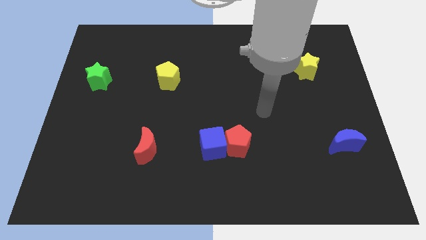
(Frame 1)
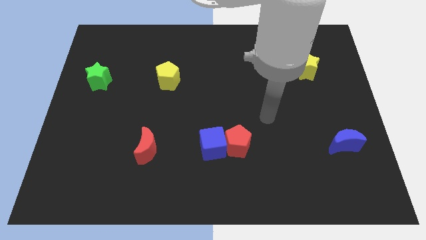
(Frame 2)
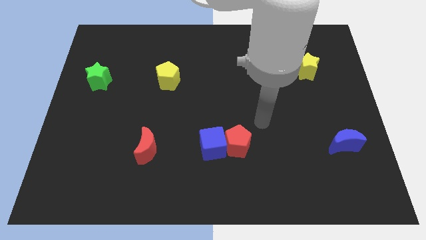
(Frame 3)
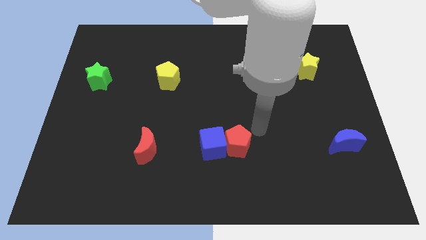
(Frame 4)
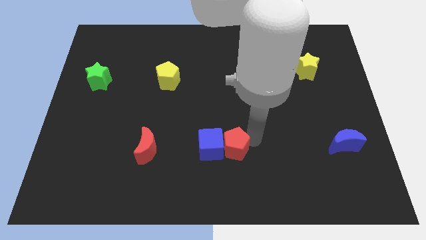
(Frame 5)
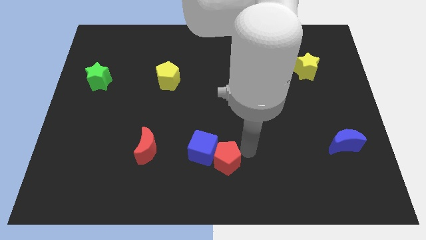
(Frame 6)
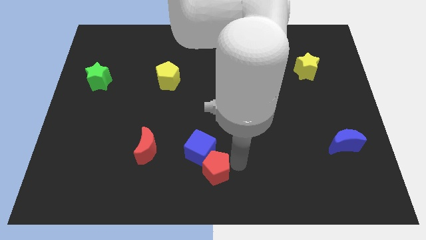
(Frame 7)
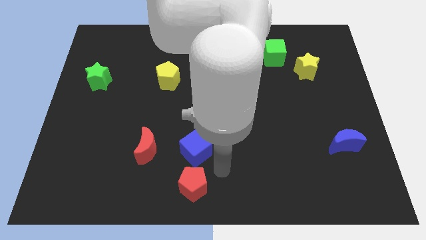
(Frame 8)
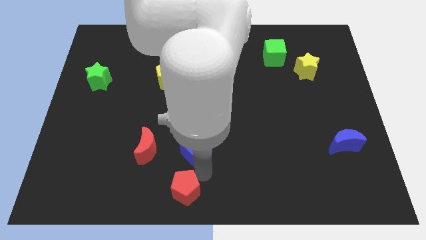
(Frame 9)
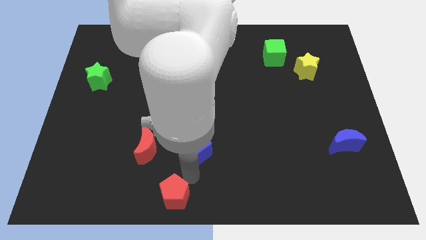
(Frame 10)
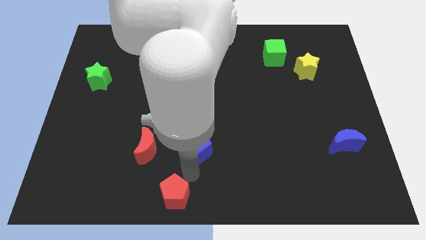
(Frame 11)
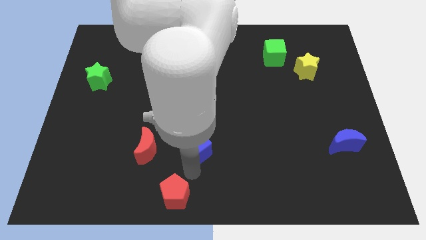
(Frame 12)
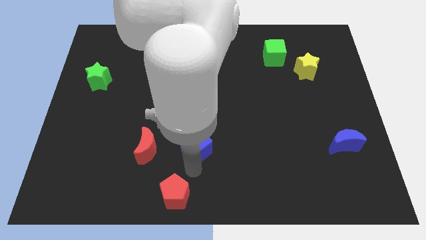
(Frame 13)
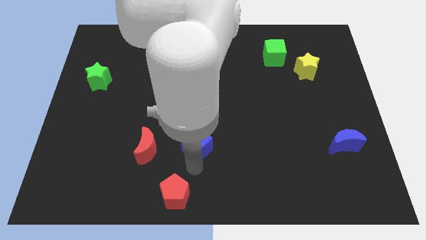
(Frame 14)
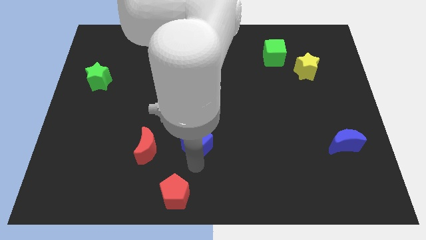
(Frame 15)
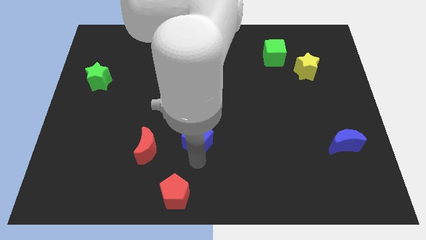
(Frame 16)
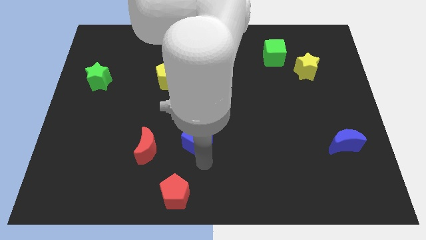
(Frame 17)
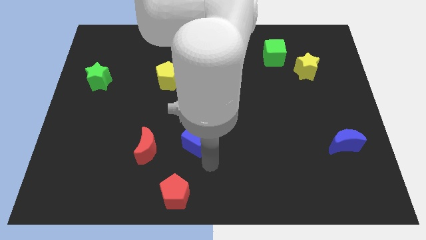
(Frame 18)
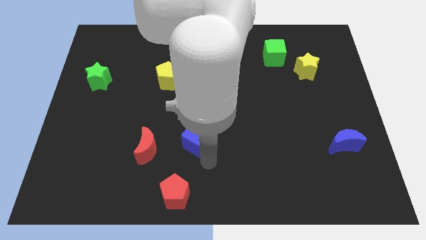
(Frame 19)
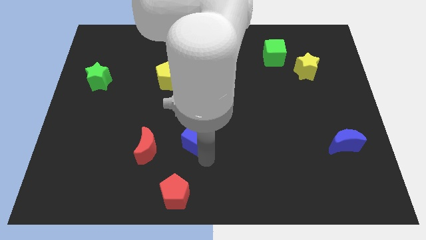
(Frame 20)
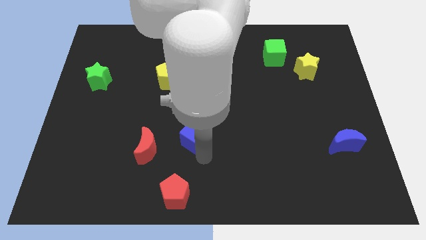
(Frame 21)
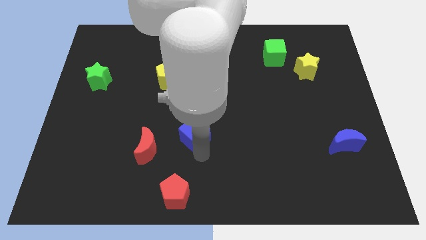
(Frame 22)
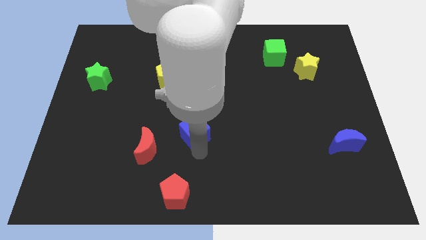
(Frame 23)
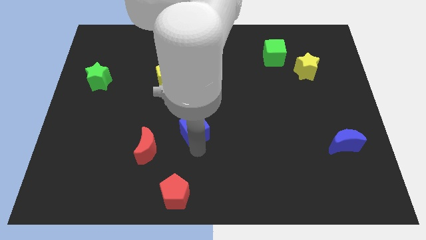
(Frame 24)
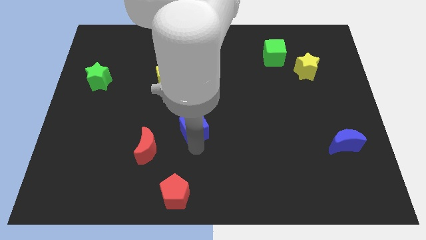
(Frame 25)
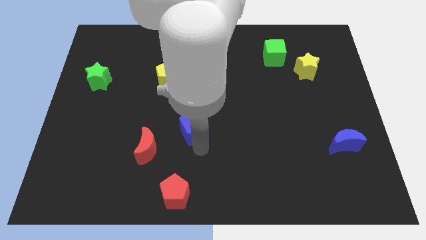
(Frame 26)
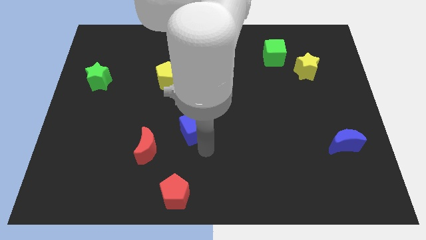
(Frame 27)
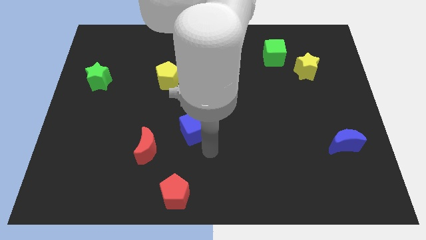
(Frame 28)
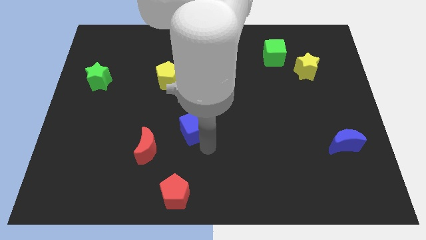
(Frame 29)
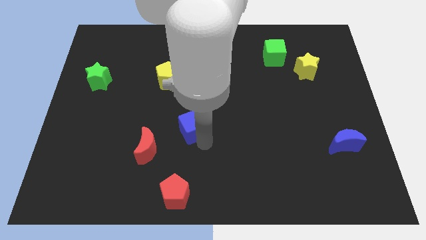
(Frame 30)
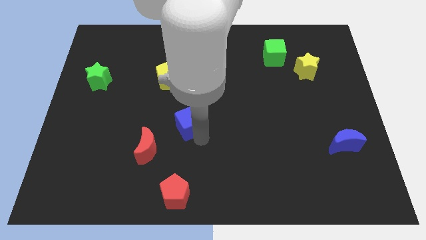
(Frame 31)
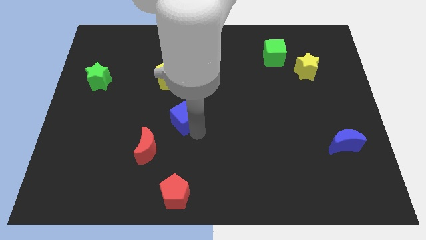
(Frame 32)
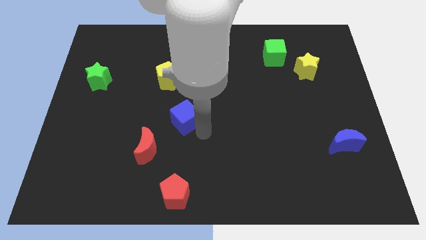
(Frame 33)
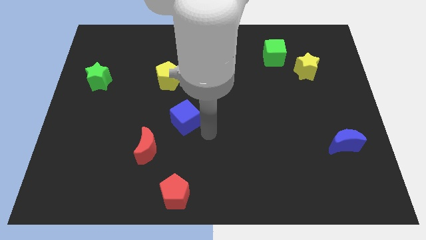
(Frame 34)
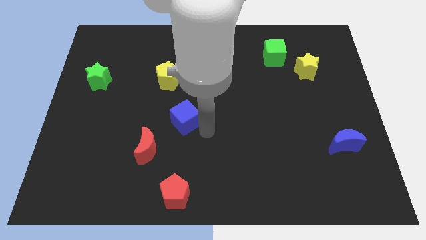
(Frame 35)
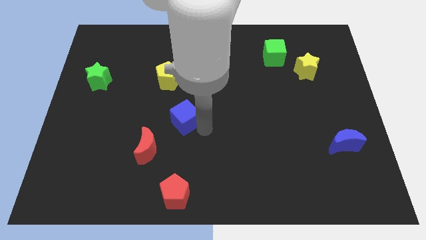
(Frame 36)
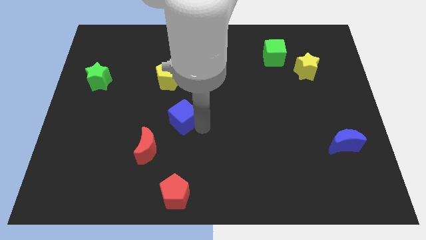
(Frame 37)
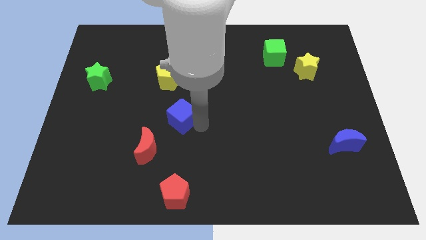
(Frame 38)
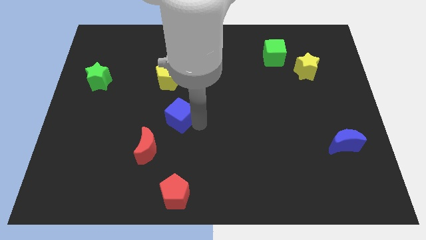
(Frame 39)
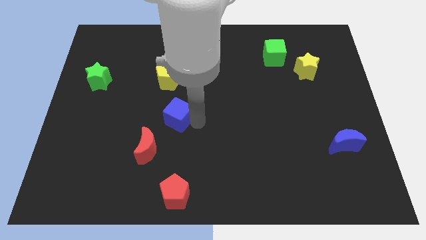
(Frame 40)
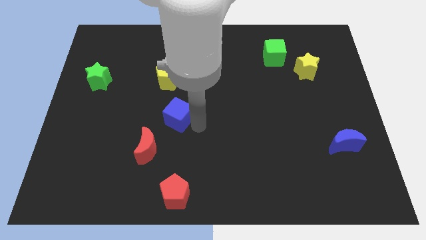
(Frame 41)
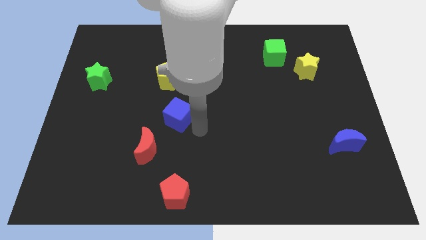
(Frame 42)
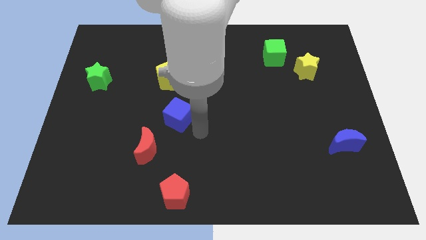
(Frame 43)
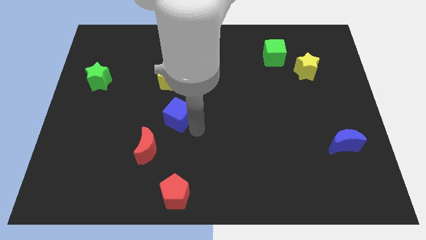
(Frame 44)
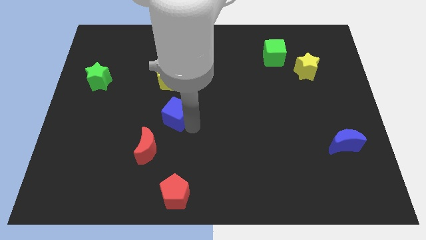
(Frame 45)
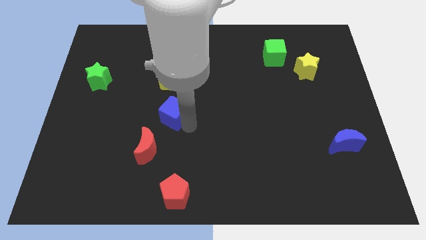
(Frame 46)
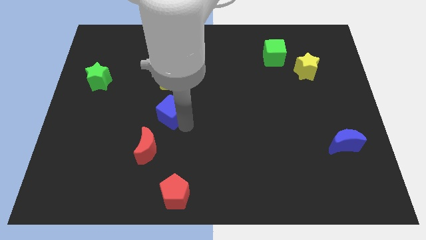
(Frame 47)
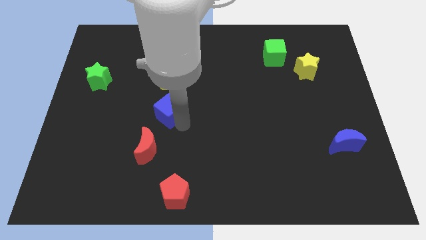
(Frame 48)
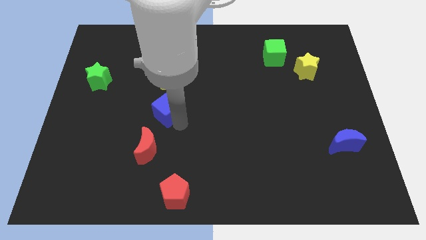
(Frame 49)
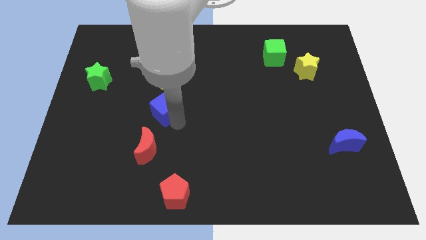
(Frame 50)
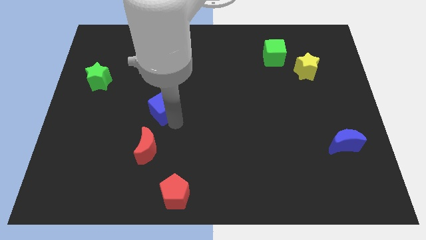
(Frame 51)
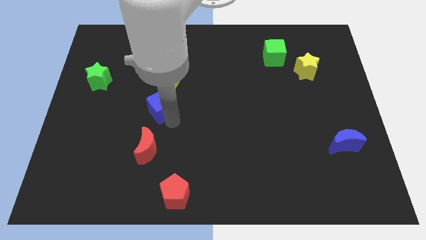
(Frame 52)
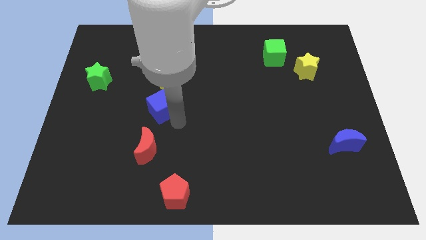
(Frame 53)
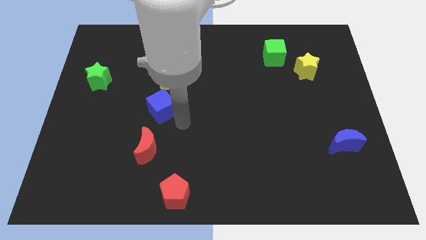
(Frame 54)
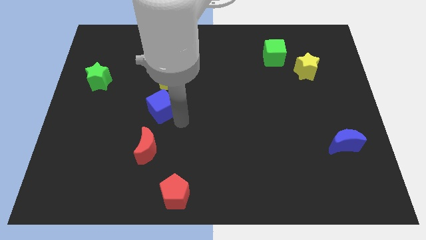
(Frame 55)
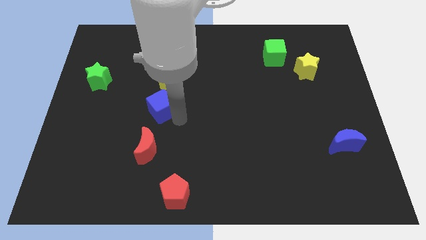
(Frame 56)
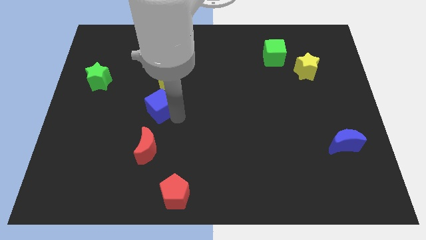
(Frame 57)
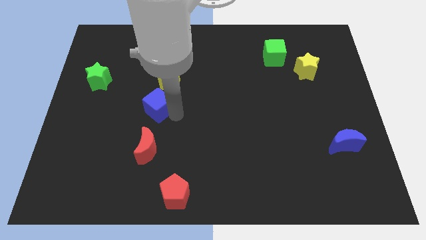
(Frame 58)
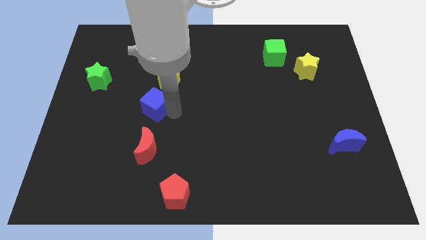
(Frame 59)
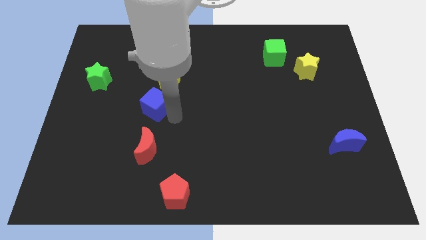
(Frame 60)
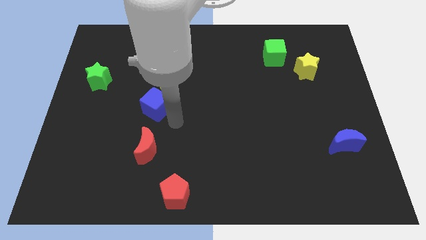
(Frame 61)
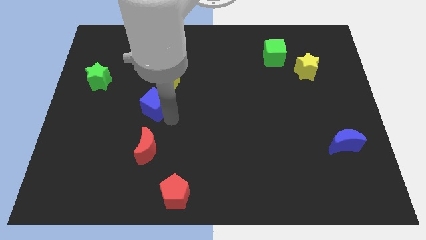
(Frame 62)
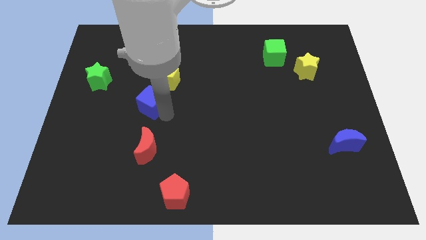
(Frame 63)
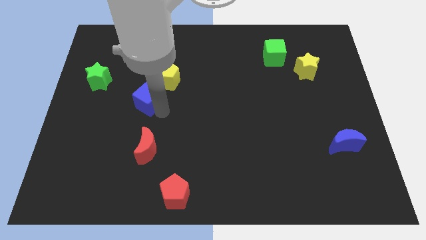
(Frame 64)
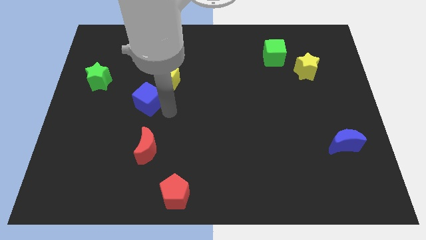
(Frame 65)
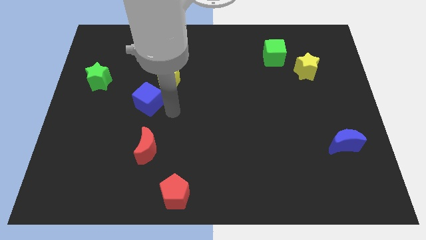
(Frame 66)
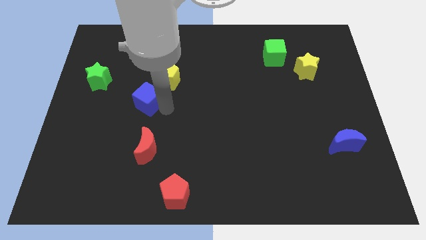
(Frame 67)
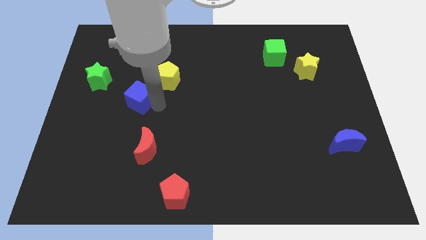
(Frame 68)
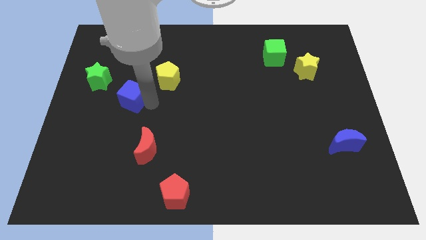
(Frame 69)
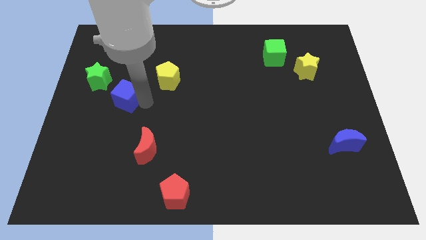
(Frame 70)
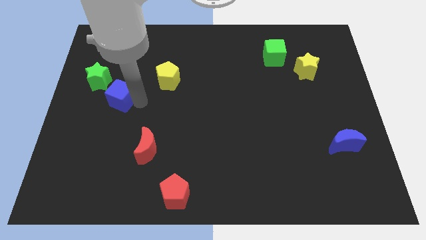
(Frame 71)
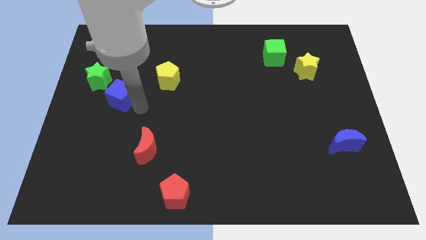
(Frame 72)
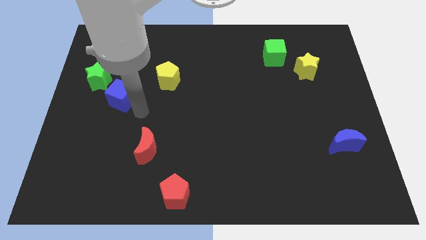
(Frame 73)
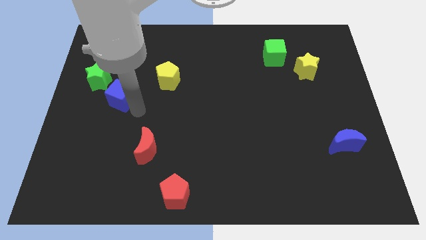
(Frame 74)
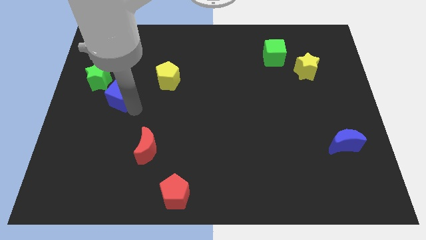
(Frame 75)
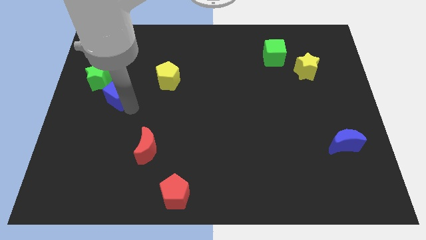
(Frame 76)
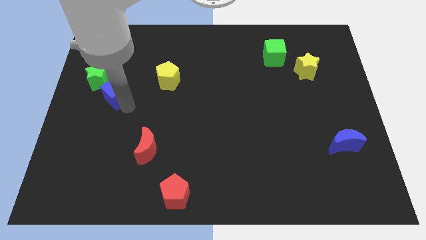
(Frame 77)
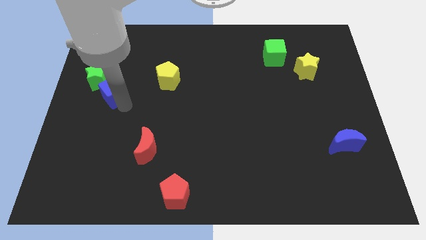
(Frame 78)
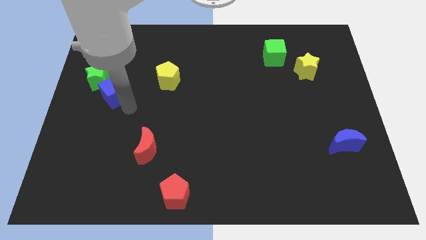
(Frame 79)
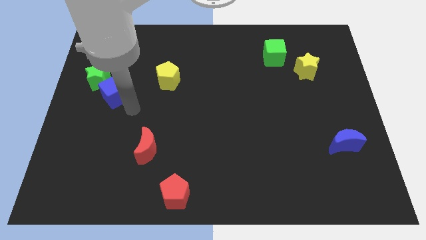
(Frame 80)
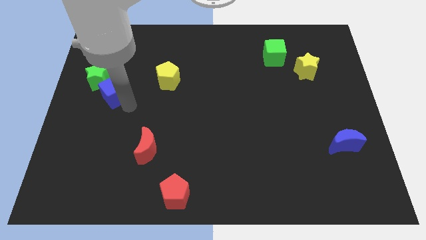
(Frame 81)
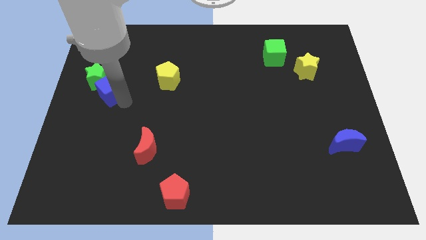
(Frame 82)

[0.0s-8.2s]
put the blue cube to the green star
